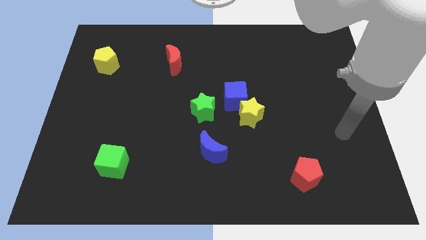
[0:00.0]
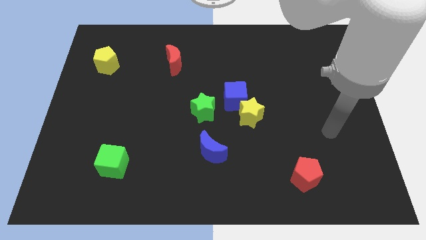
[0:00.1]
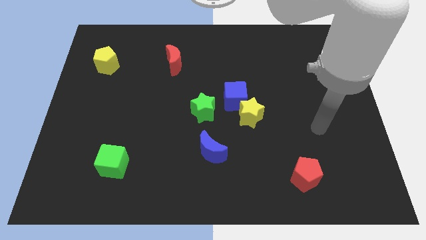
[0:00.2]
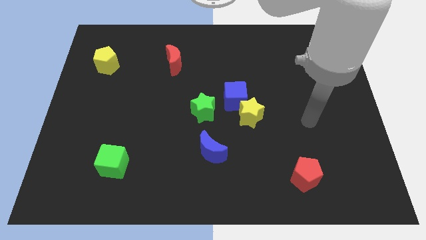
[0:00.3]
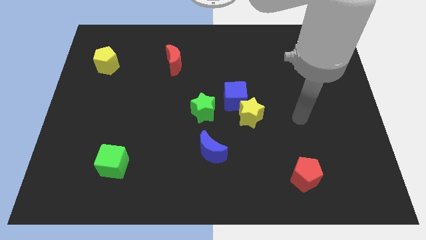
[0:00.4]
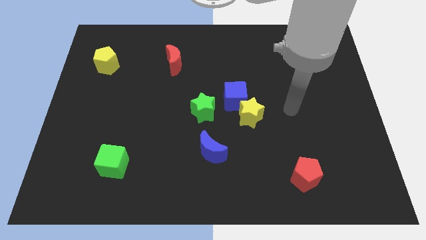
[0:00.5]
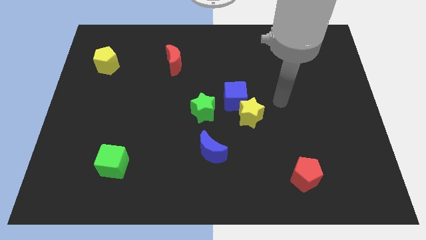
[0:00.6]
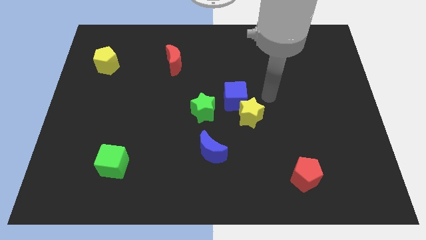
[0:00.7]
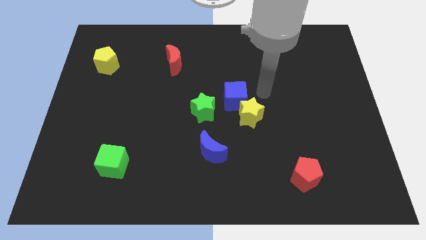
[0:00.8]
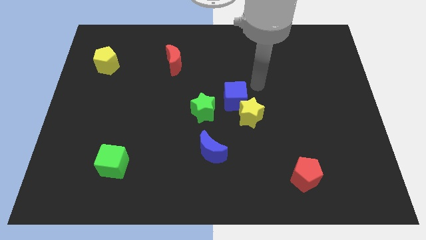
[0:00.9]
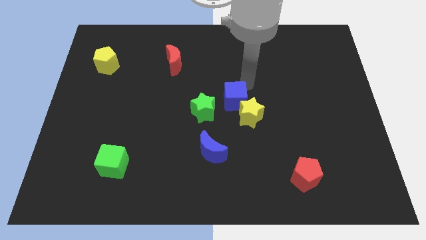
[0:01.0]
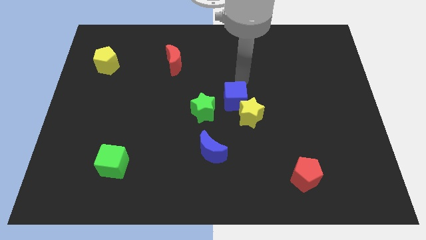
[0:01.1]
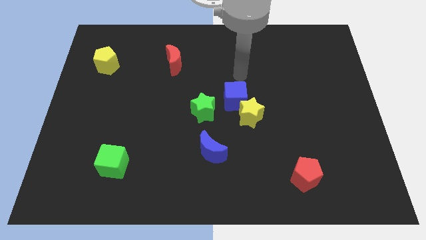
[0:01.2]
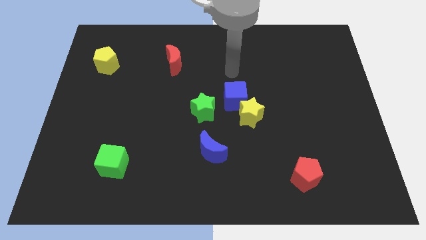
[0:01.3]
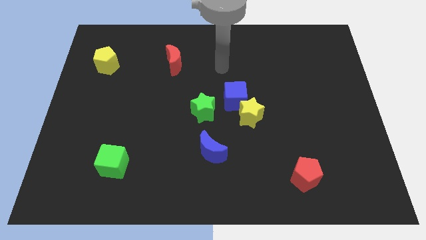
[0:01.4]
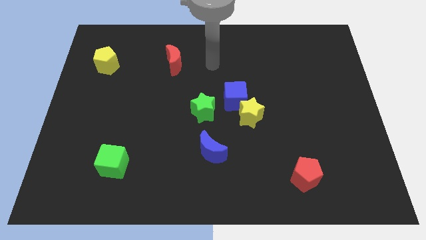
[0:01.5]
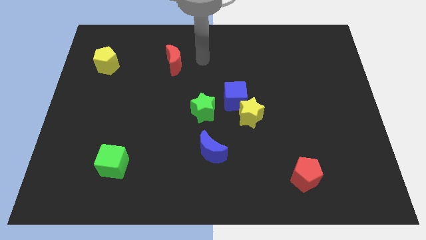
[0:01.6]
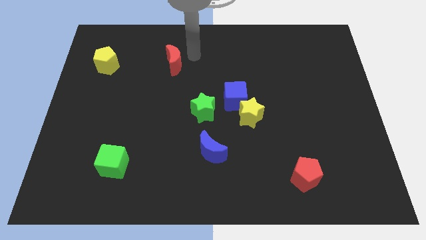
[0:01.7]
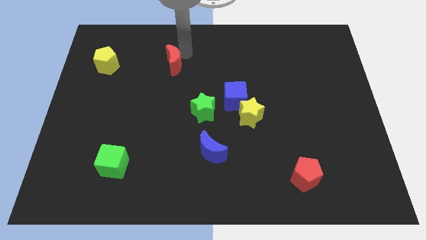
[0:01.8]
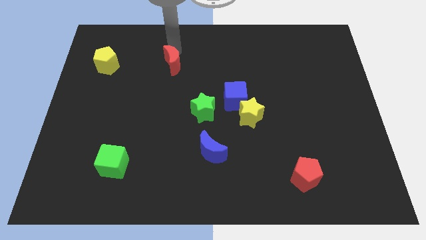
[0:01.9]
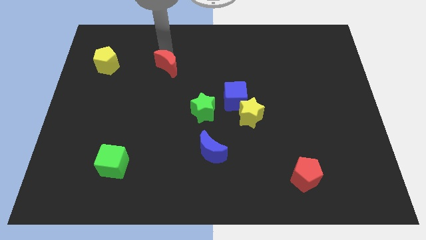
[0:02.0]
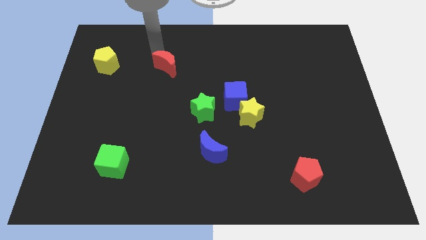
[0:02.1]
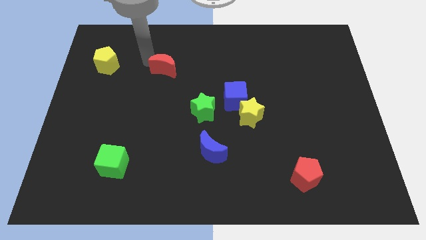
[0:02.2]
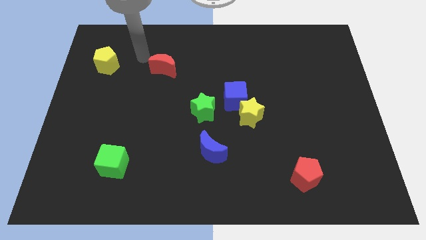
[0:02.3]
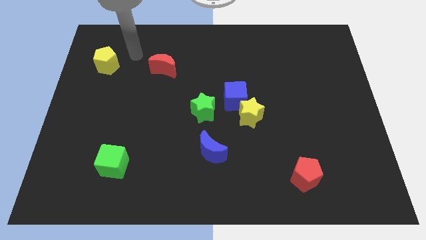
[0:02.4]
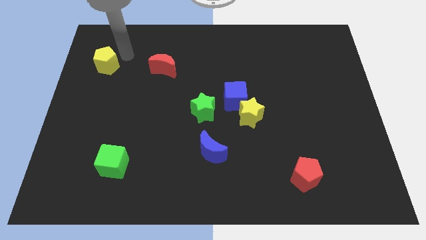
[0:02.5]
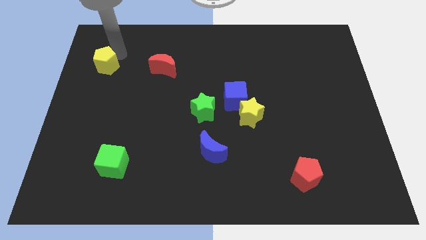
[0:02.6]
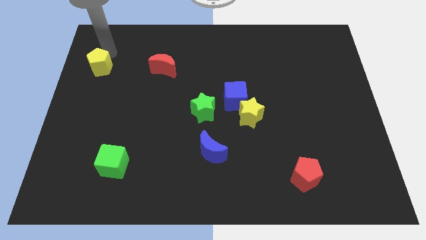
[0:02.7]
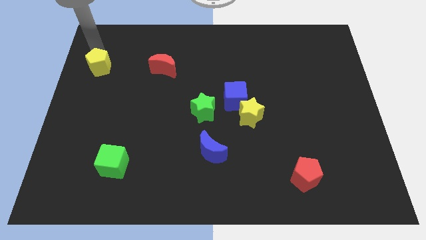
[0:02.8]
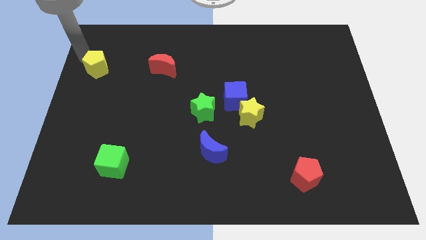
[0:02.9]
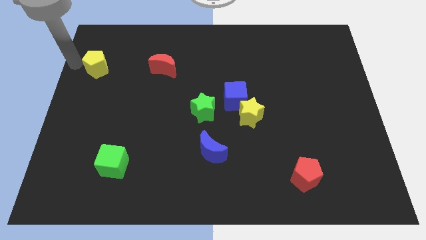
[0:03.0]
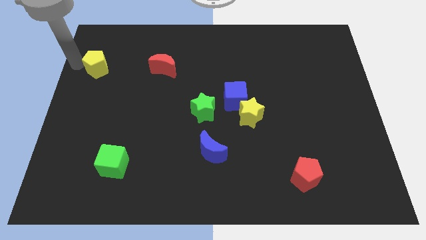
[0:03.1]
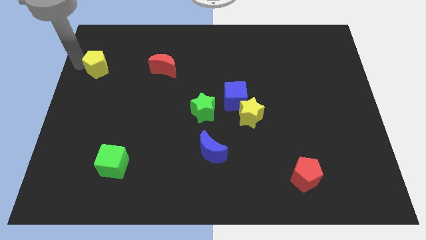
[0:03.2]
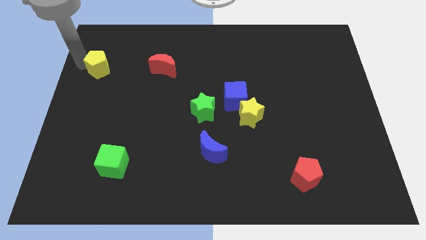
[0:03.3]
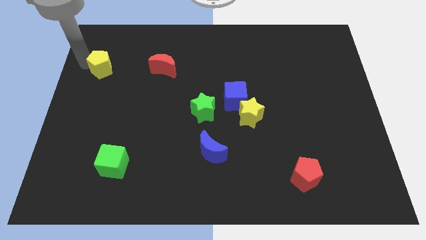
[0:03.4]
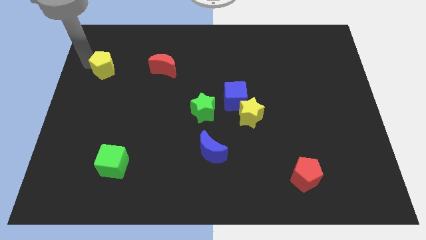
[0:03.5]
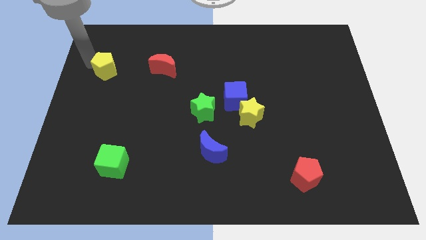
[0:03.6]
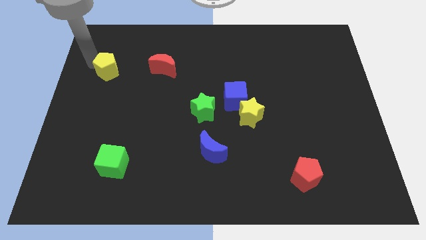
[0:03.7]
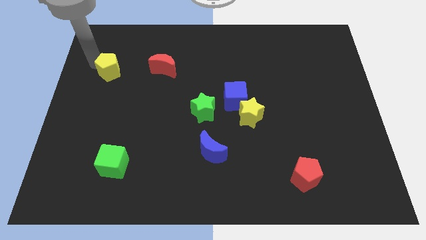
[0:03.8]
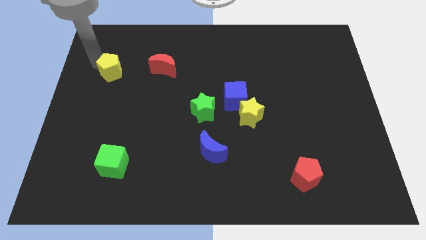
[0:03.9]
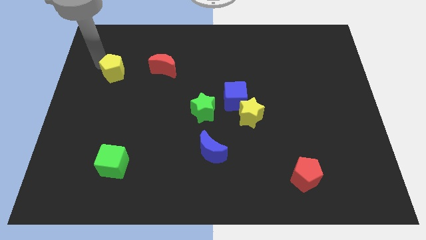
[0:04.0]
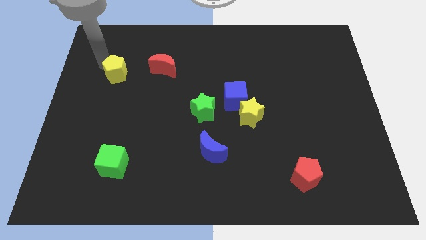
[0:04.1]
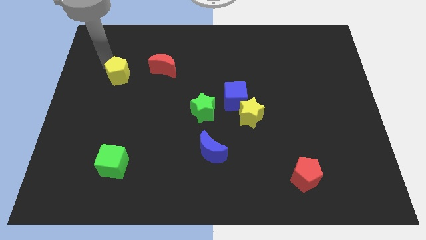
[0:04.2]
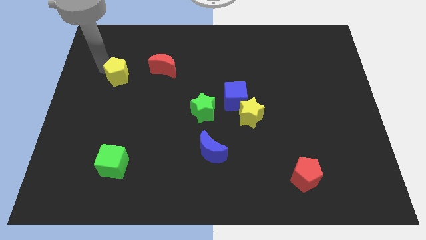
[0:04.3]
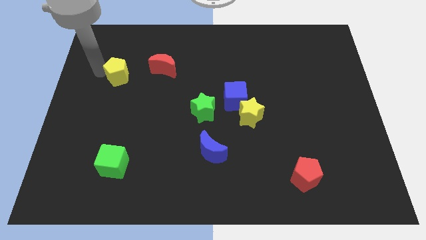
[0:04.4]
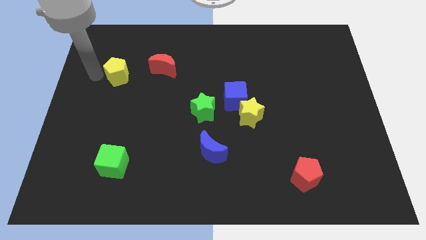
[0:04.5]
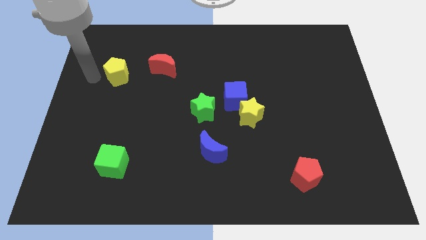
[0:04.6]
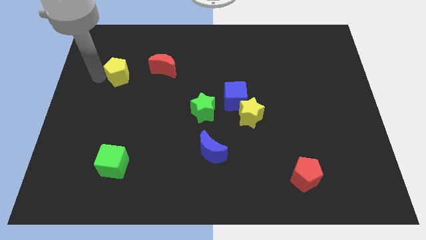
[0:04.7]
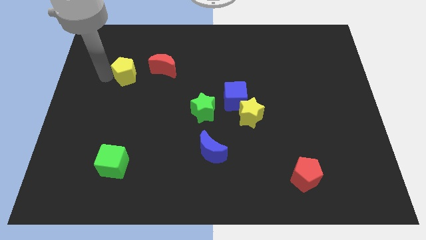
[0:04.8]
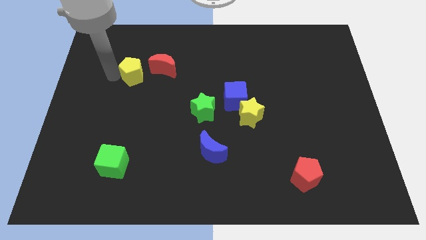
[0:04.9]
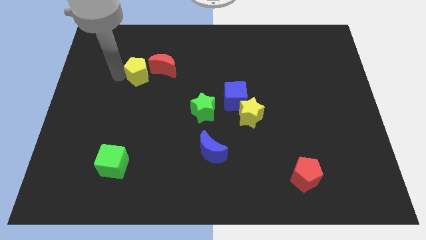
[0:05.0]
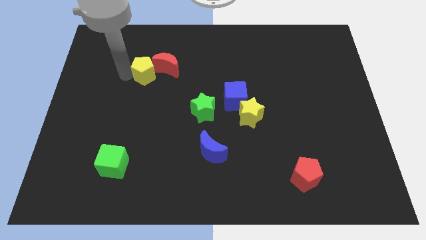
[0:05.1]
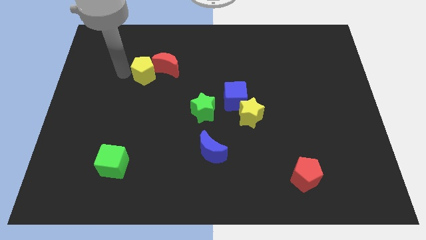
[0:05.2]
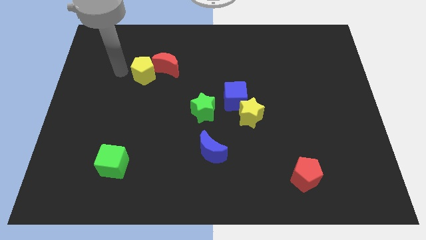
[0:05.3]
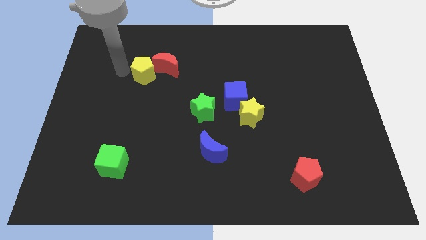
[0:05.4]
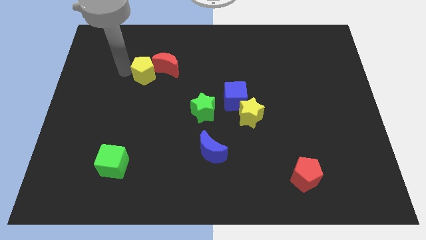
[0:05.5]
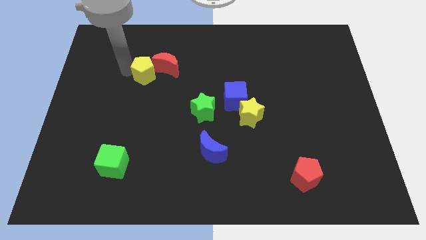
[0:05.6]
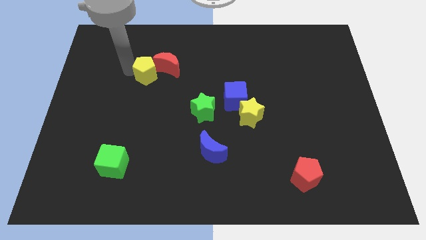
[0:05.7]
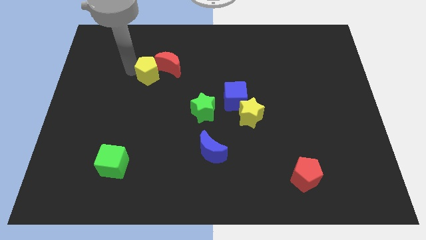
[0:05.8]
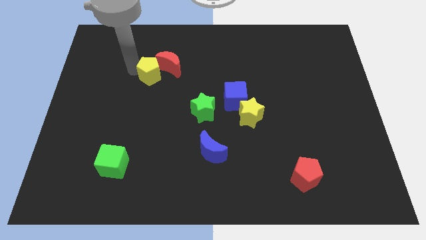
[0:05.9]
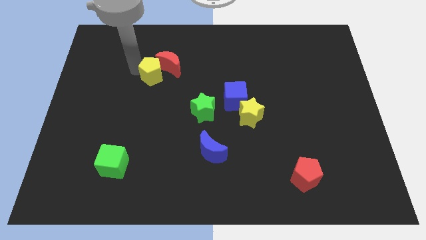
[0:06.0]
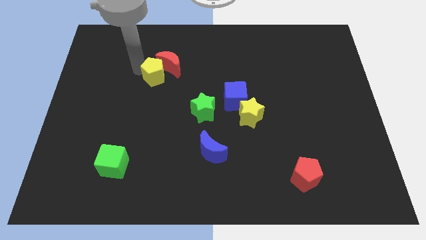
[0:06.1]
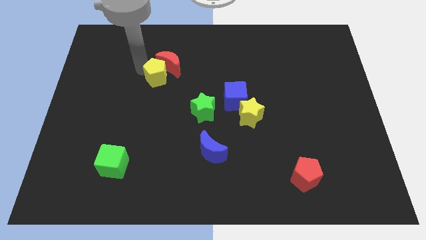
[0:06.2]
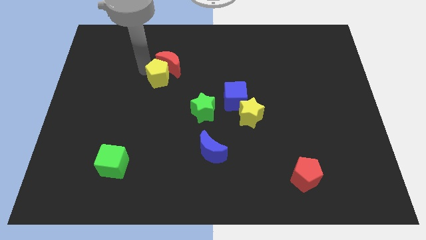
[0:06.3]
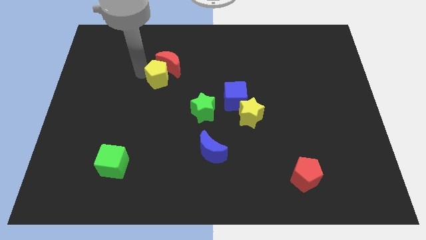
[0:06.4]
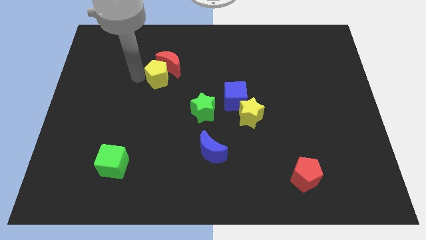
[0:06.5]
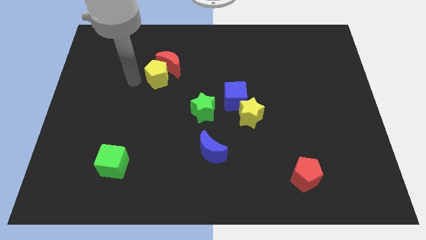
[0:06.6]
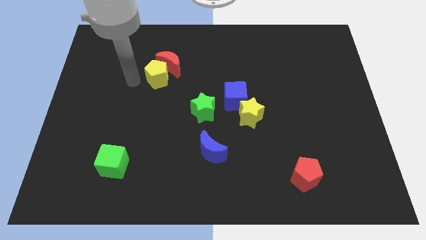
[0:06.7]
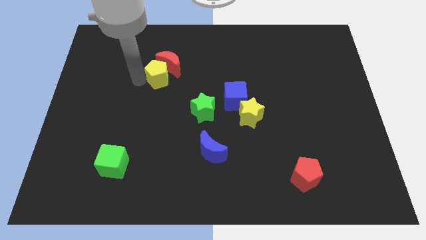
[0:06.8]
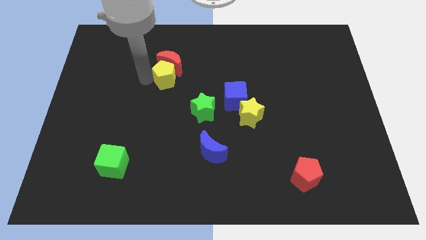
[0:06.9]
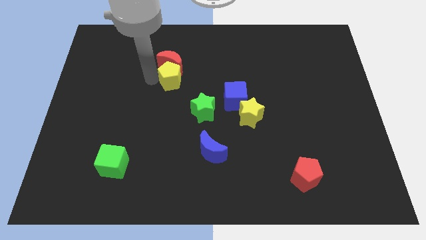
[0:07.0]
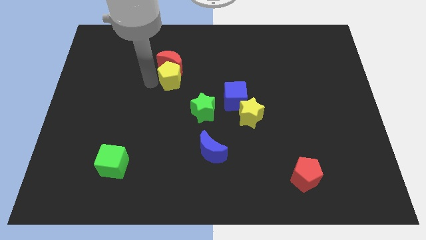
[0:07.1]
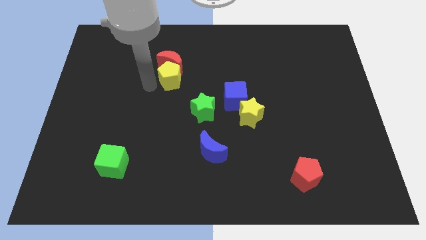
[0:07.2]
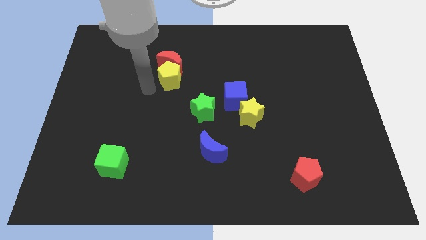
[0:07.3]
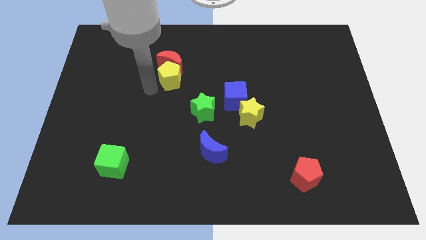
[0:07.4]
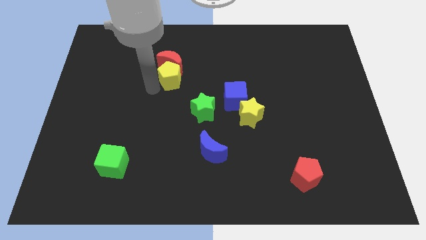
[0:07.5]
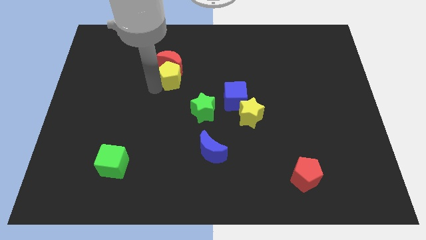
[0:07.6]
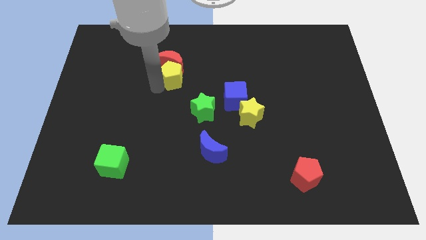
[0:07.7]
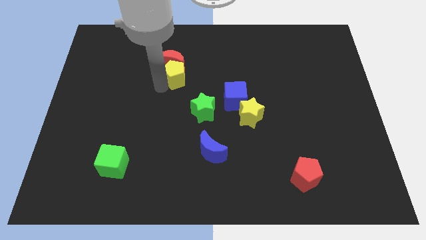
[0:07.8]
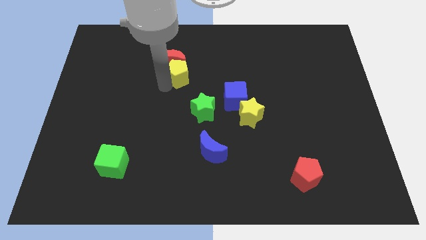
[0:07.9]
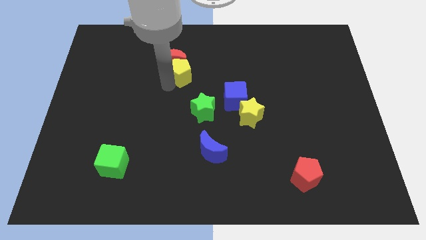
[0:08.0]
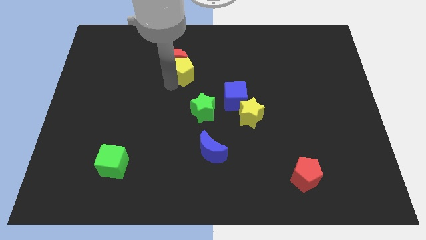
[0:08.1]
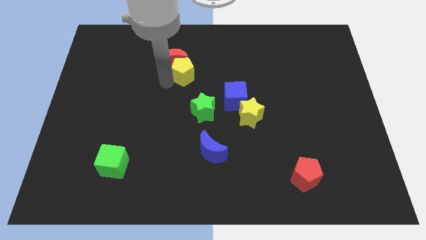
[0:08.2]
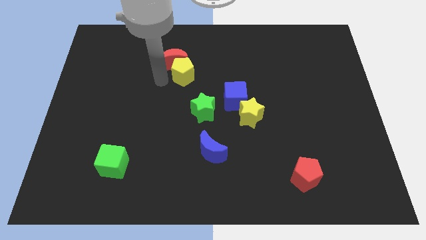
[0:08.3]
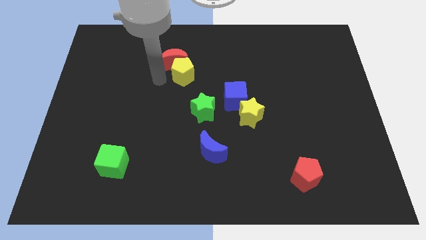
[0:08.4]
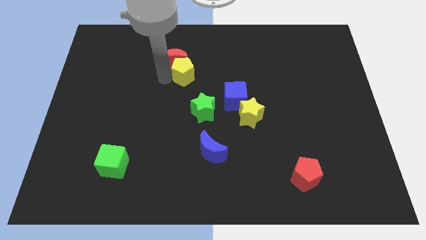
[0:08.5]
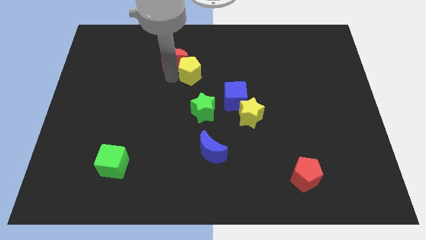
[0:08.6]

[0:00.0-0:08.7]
push the yellow pentagon to the right
